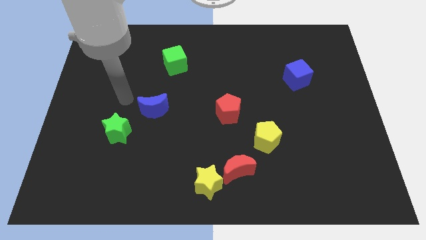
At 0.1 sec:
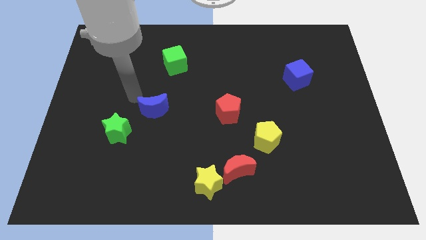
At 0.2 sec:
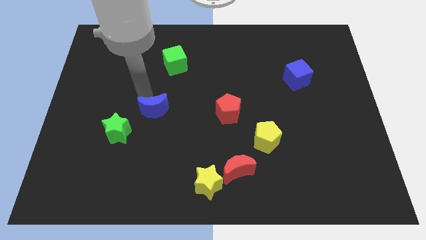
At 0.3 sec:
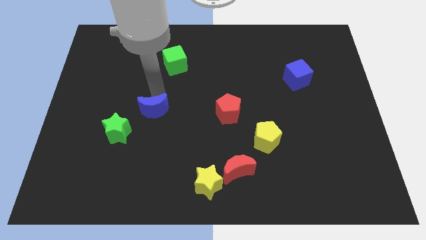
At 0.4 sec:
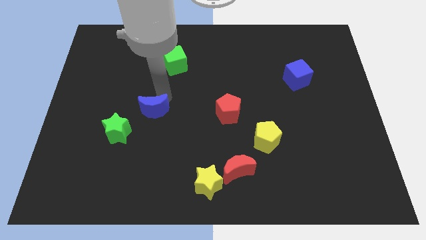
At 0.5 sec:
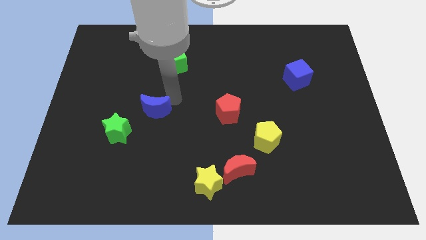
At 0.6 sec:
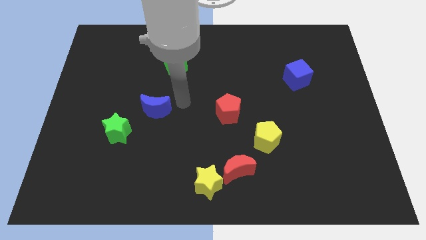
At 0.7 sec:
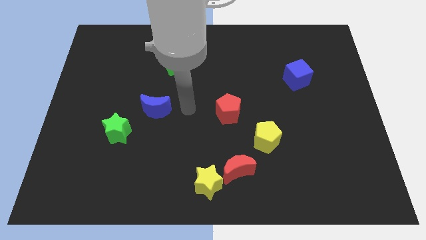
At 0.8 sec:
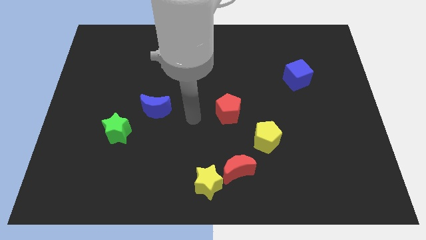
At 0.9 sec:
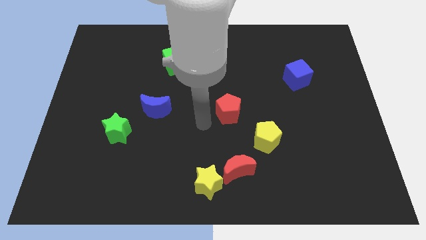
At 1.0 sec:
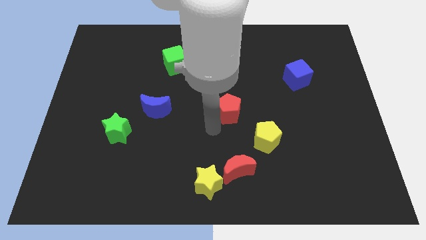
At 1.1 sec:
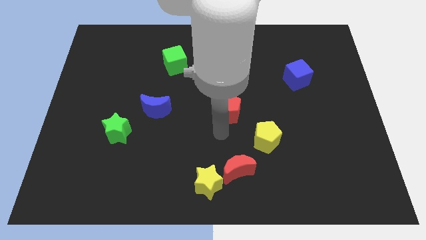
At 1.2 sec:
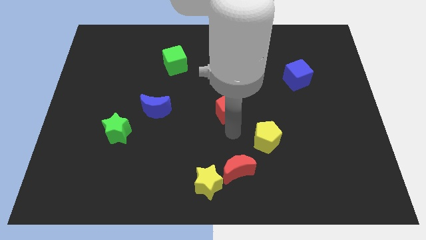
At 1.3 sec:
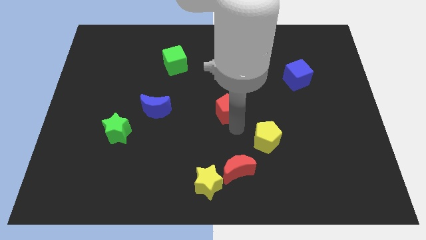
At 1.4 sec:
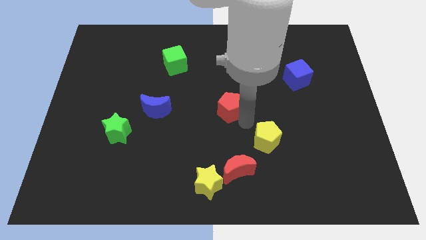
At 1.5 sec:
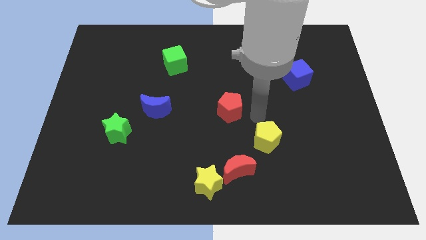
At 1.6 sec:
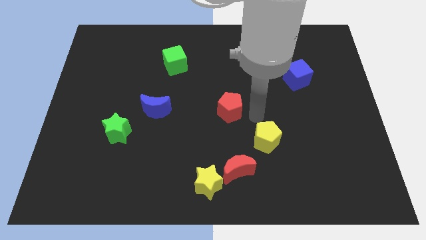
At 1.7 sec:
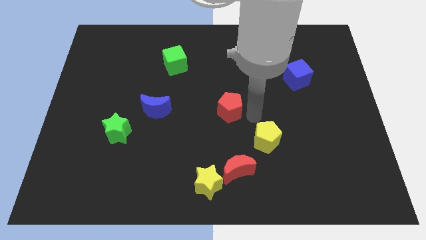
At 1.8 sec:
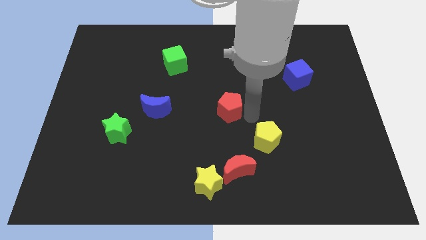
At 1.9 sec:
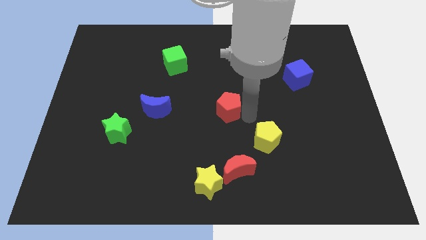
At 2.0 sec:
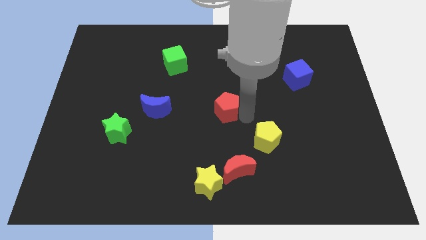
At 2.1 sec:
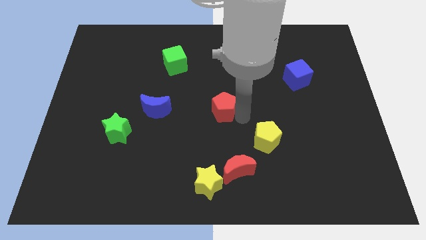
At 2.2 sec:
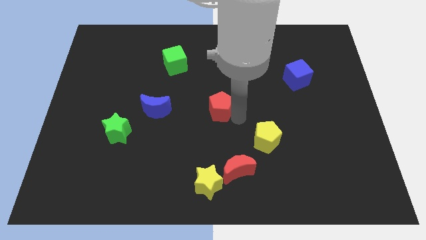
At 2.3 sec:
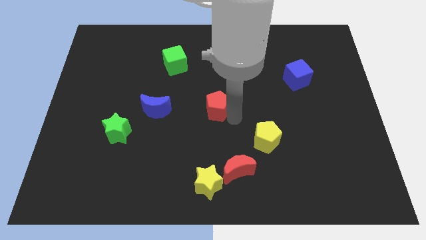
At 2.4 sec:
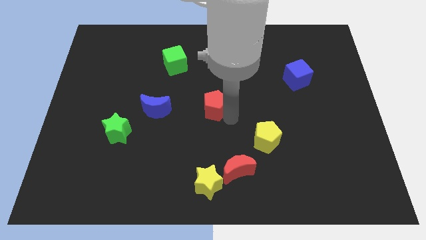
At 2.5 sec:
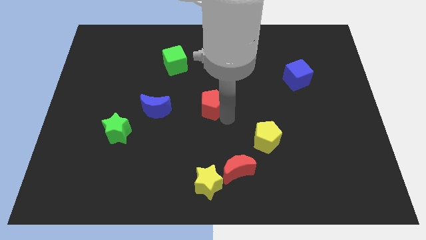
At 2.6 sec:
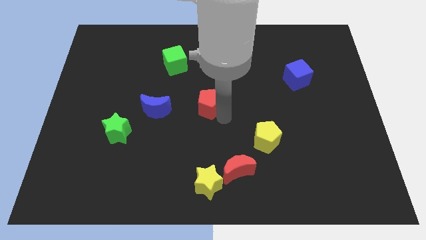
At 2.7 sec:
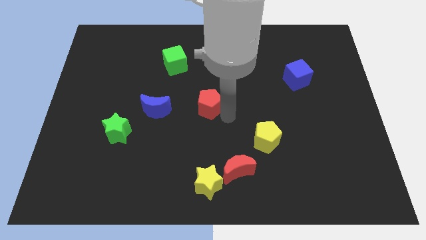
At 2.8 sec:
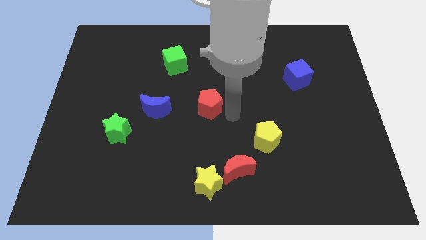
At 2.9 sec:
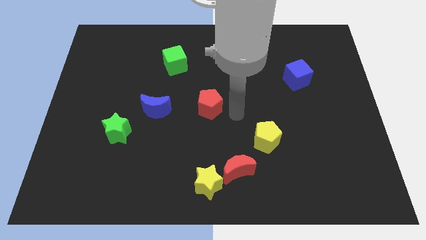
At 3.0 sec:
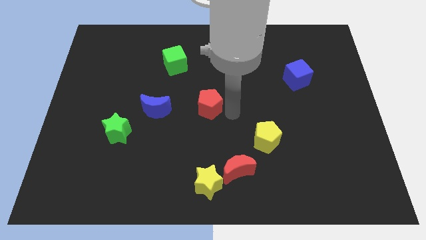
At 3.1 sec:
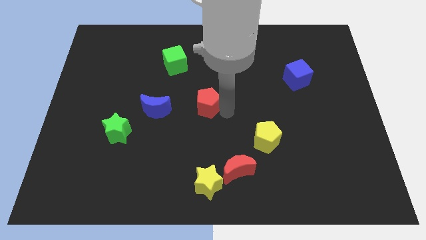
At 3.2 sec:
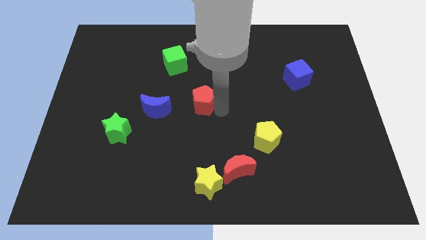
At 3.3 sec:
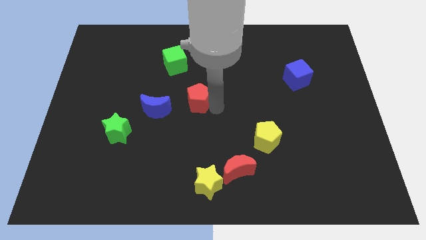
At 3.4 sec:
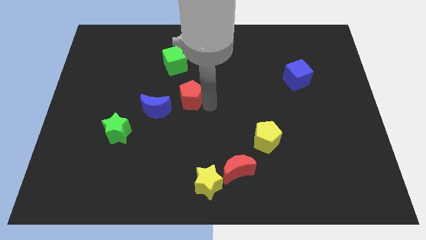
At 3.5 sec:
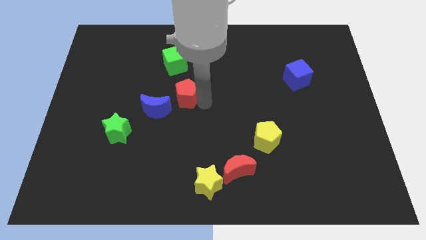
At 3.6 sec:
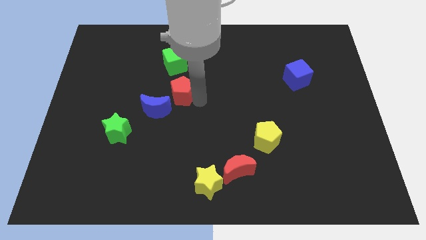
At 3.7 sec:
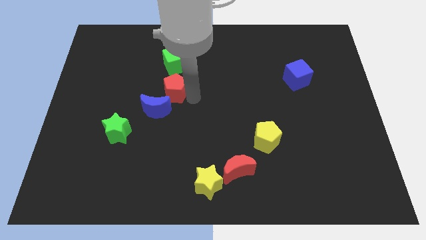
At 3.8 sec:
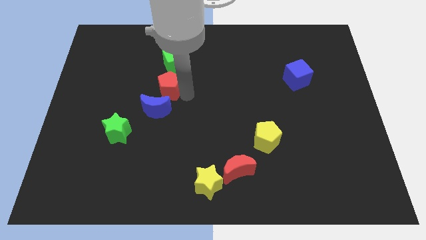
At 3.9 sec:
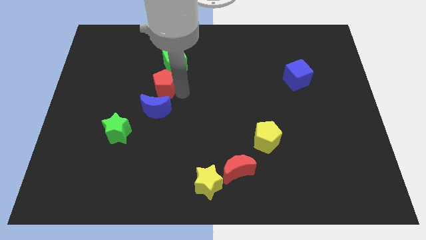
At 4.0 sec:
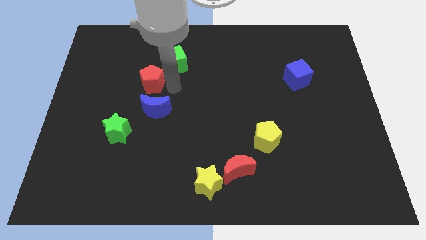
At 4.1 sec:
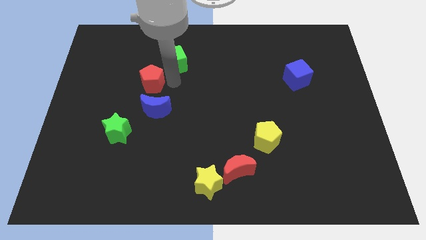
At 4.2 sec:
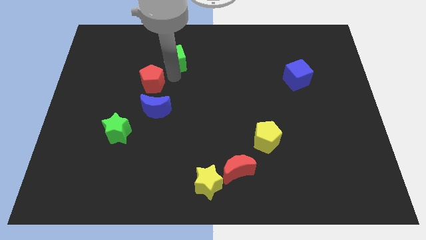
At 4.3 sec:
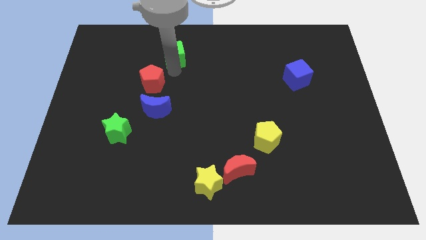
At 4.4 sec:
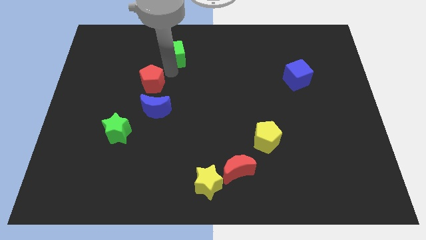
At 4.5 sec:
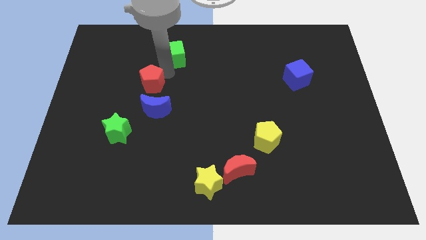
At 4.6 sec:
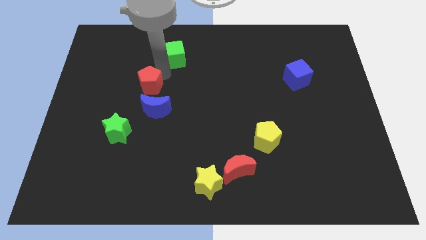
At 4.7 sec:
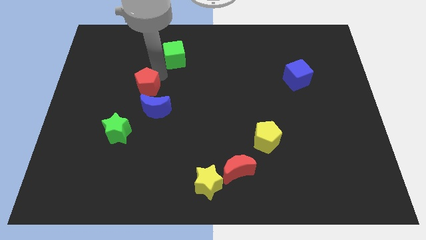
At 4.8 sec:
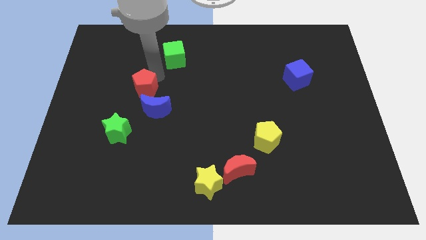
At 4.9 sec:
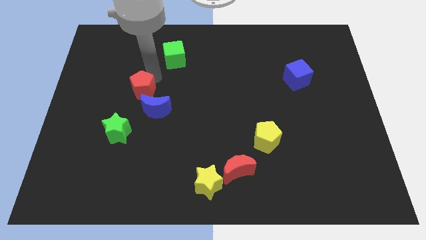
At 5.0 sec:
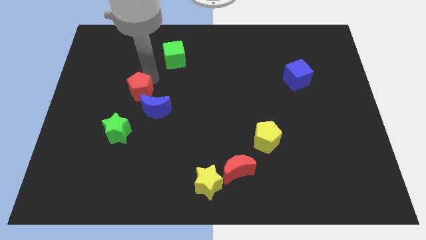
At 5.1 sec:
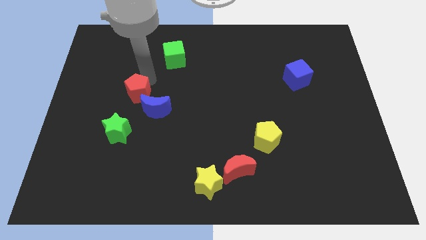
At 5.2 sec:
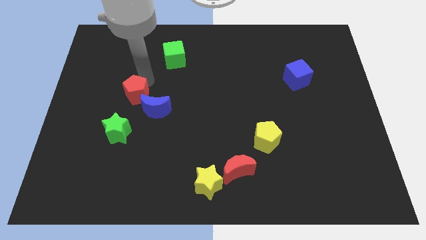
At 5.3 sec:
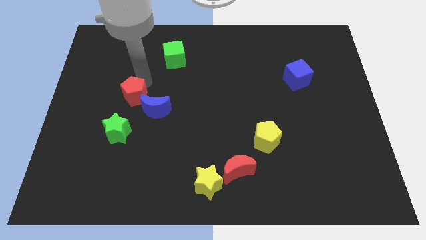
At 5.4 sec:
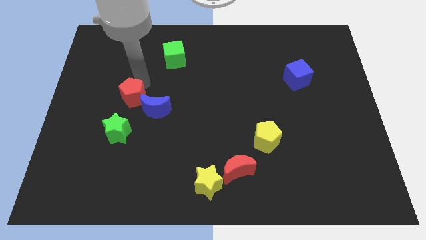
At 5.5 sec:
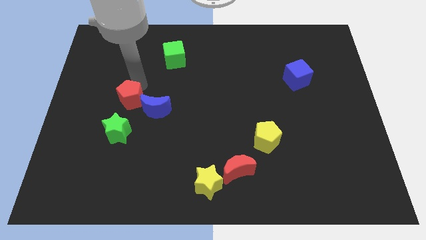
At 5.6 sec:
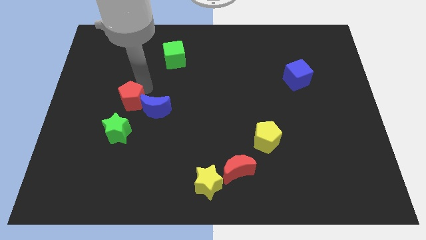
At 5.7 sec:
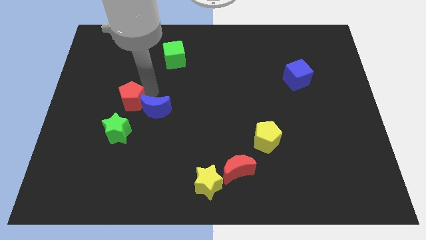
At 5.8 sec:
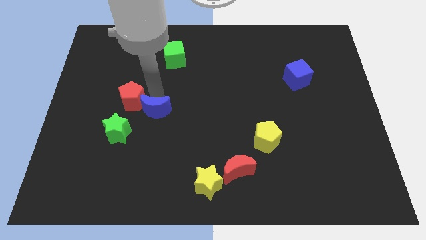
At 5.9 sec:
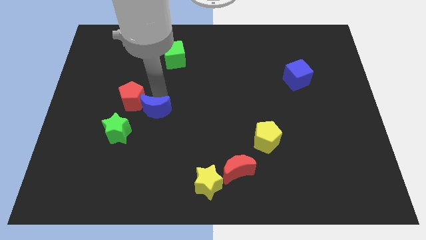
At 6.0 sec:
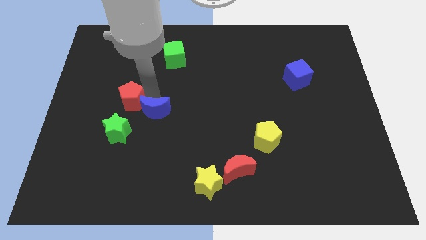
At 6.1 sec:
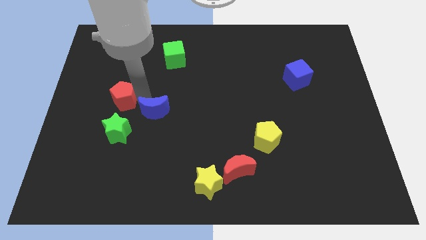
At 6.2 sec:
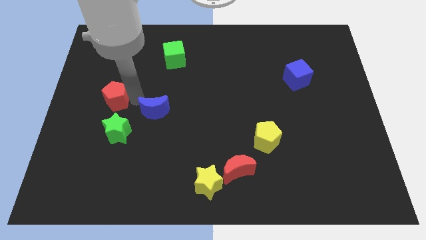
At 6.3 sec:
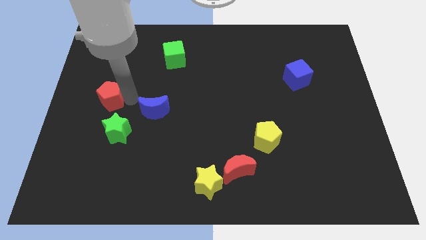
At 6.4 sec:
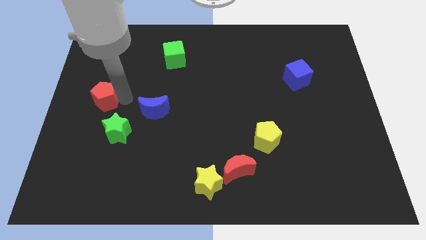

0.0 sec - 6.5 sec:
move the red pentagon to the left side

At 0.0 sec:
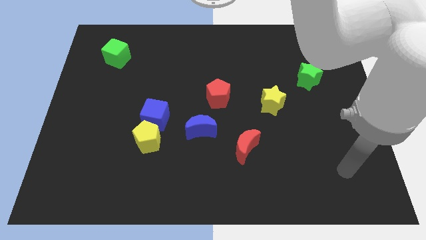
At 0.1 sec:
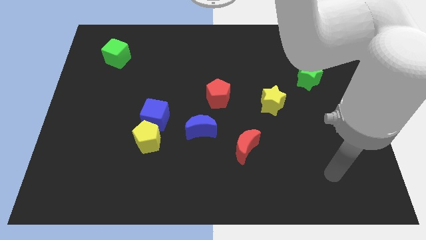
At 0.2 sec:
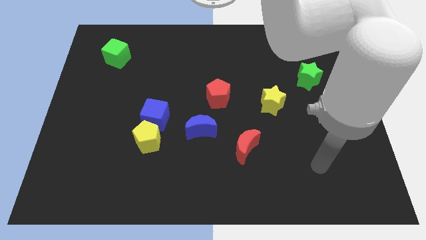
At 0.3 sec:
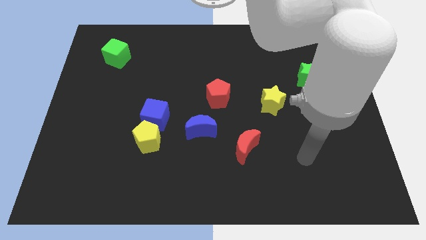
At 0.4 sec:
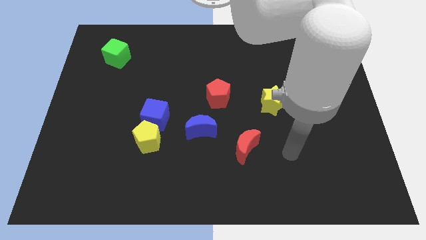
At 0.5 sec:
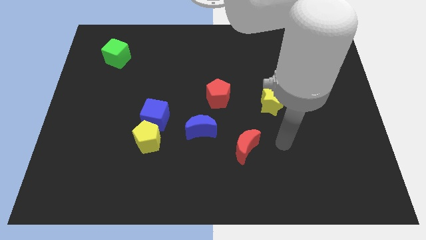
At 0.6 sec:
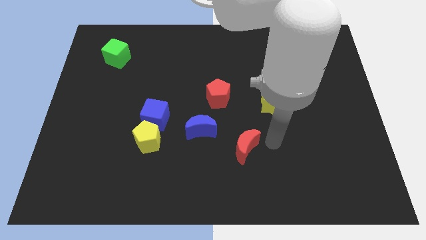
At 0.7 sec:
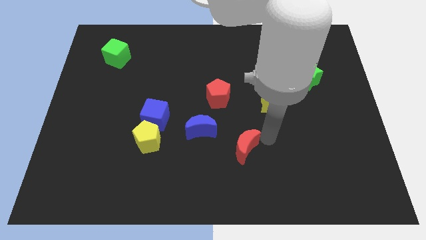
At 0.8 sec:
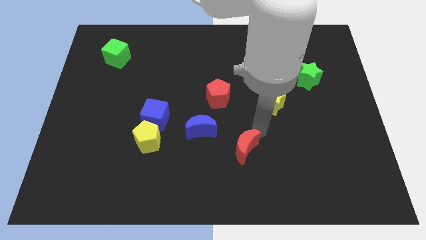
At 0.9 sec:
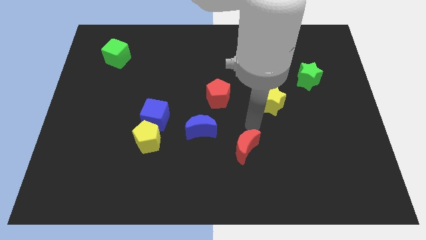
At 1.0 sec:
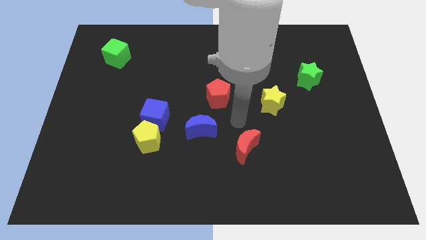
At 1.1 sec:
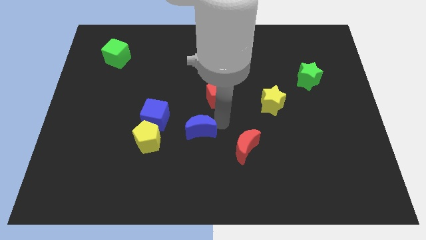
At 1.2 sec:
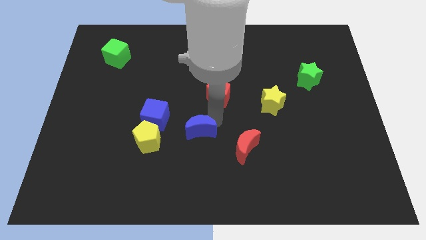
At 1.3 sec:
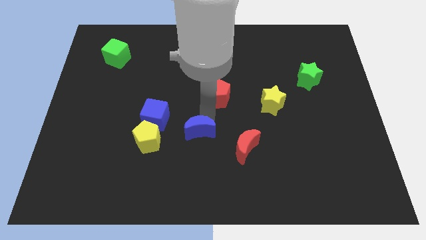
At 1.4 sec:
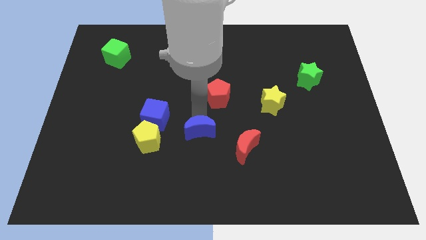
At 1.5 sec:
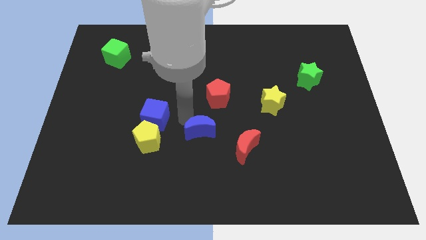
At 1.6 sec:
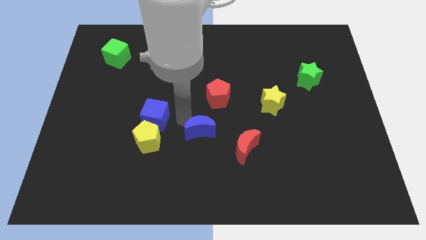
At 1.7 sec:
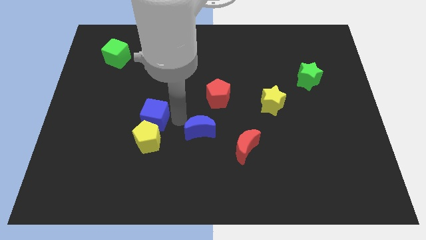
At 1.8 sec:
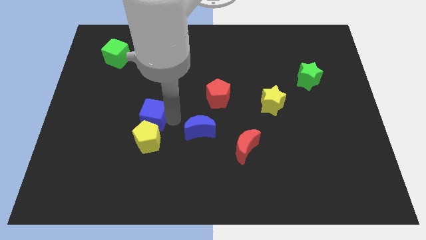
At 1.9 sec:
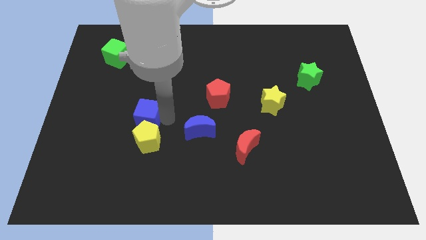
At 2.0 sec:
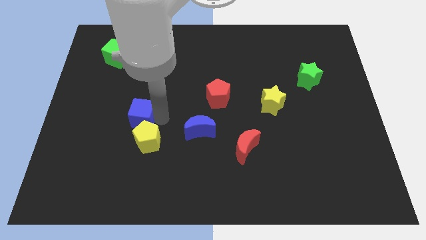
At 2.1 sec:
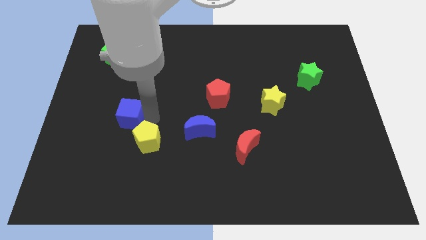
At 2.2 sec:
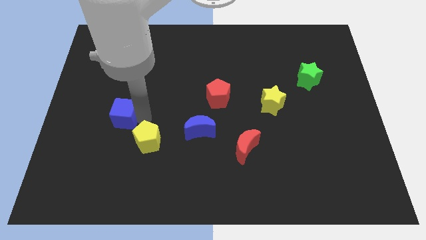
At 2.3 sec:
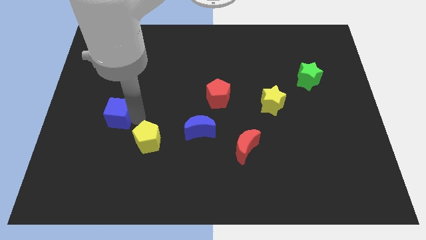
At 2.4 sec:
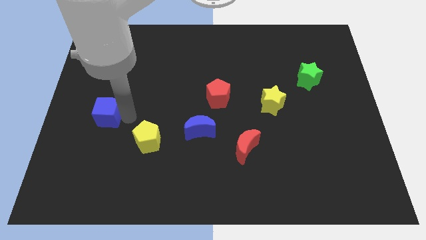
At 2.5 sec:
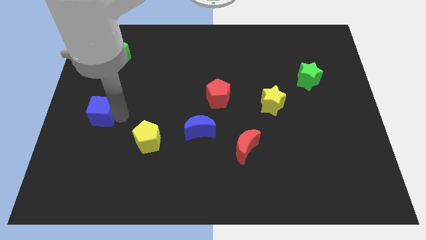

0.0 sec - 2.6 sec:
slide the blue cube to the center left
